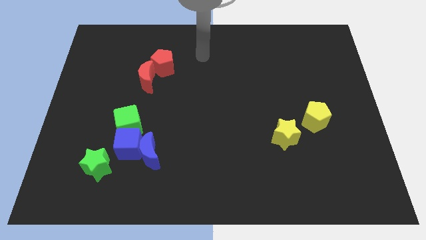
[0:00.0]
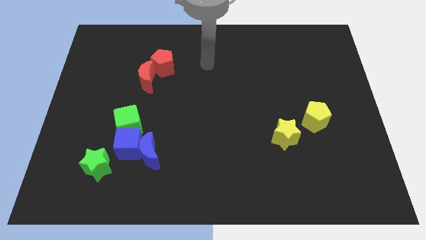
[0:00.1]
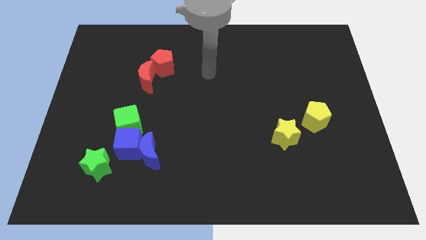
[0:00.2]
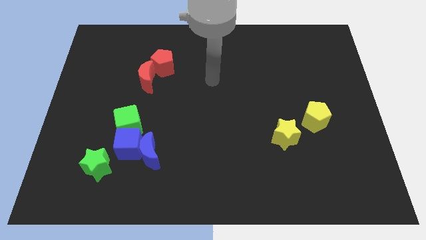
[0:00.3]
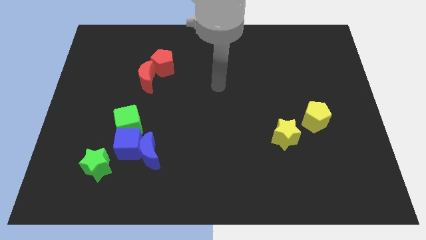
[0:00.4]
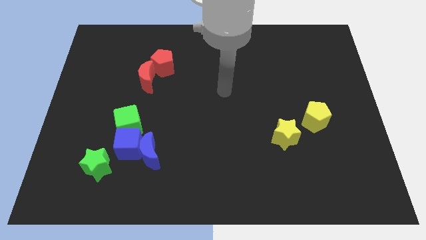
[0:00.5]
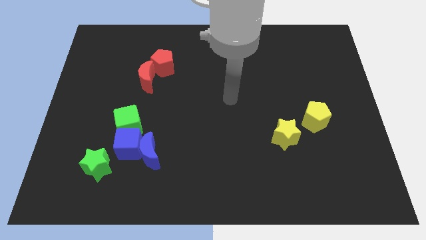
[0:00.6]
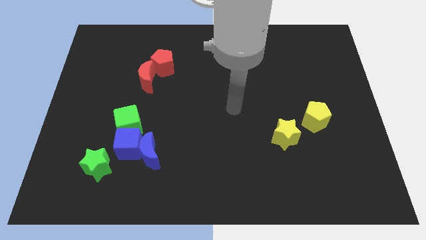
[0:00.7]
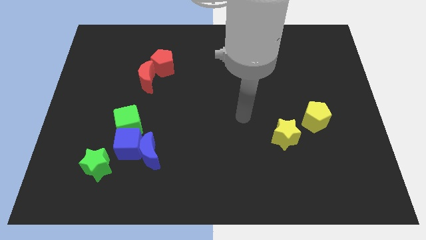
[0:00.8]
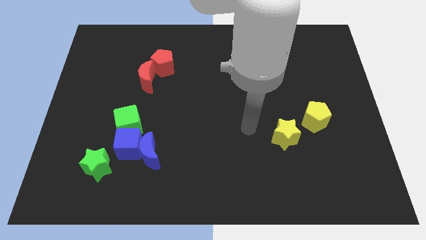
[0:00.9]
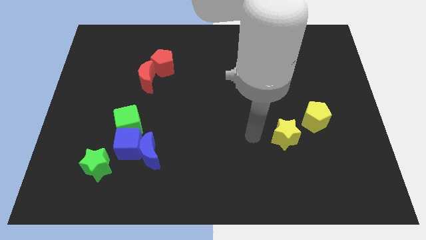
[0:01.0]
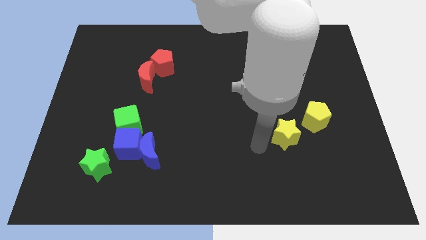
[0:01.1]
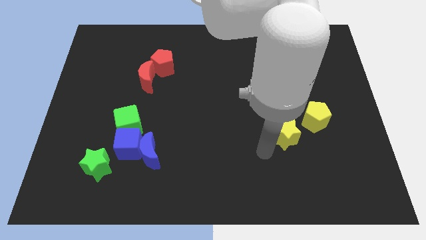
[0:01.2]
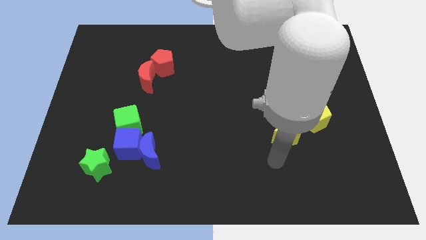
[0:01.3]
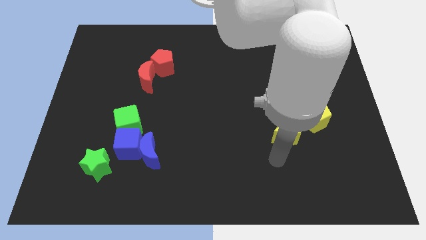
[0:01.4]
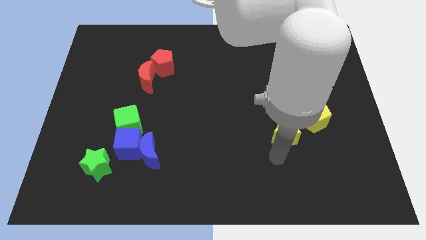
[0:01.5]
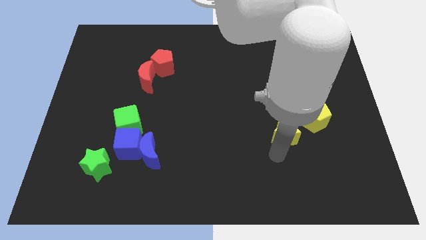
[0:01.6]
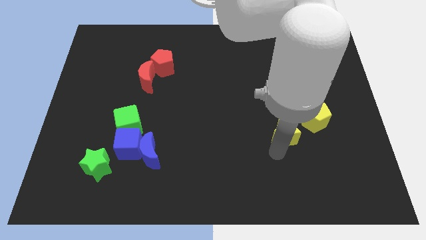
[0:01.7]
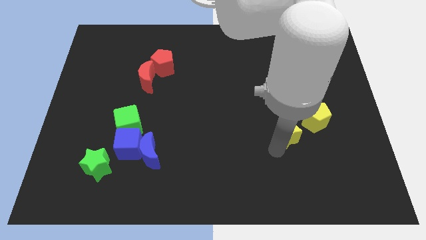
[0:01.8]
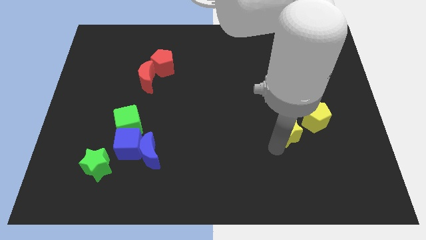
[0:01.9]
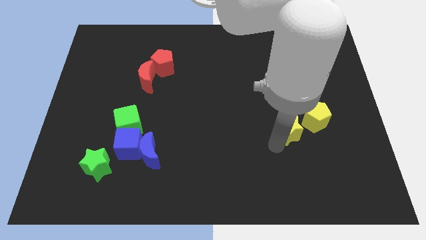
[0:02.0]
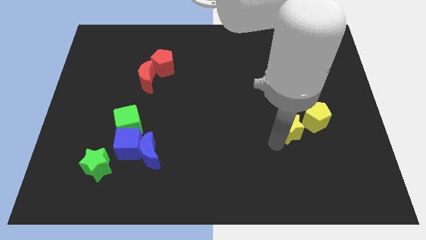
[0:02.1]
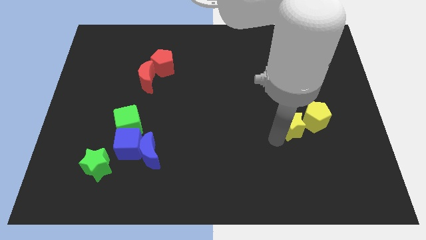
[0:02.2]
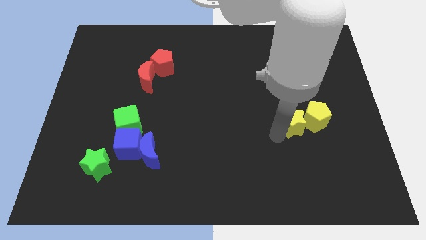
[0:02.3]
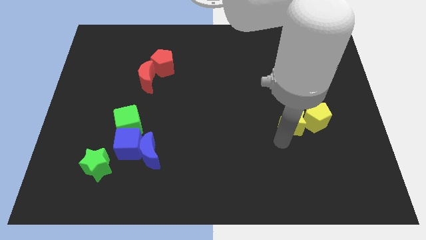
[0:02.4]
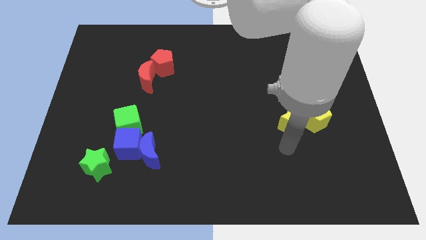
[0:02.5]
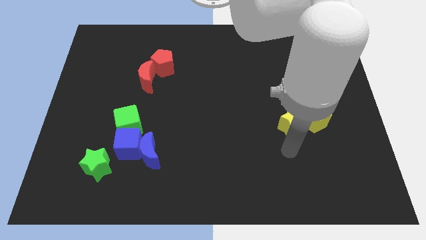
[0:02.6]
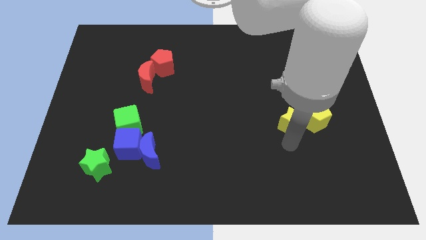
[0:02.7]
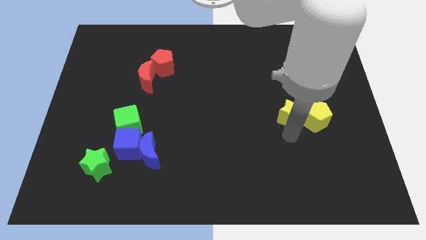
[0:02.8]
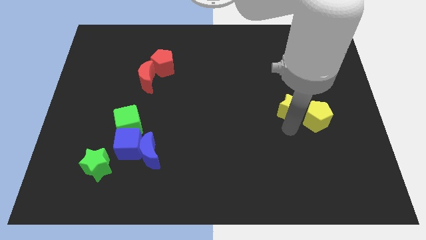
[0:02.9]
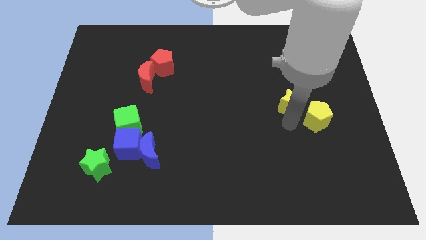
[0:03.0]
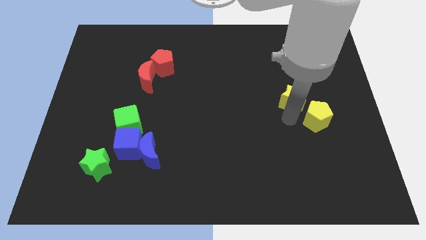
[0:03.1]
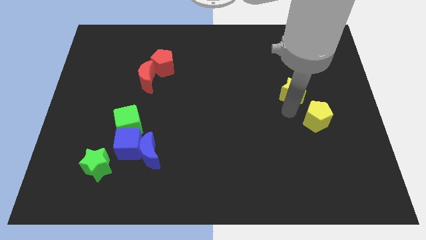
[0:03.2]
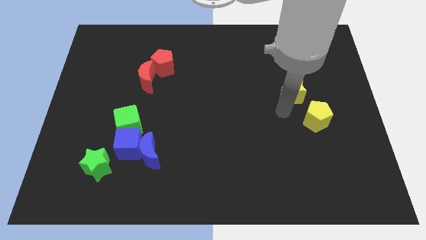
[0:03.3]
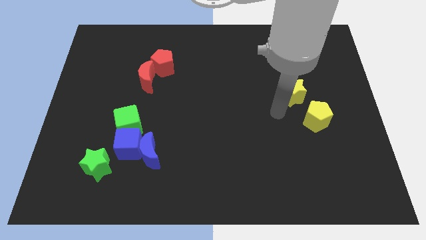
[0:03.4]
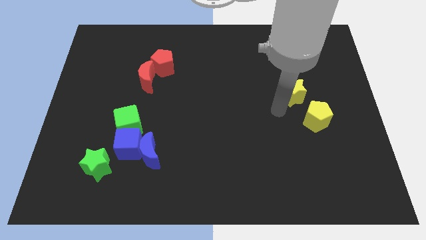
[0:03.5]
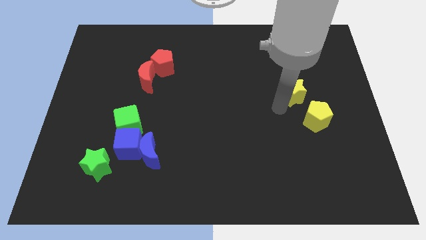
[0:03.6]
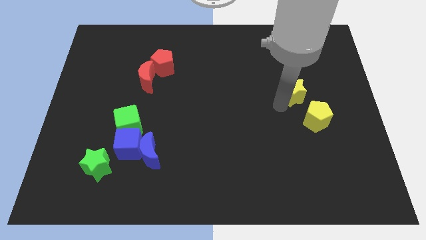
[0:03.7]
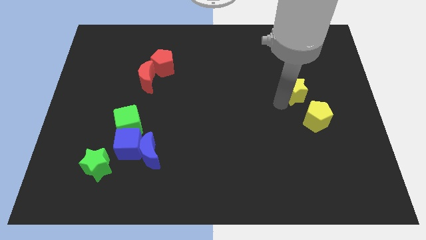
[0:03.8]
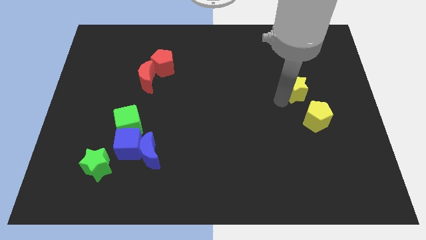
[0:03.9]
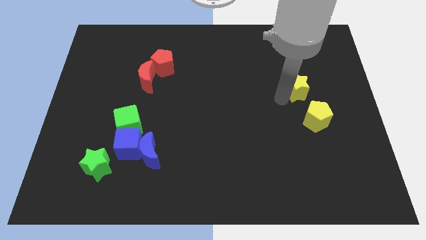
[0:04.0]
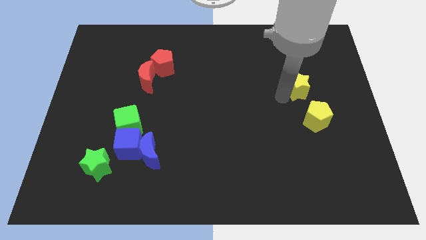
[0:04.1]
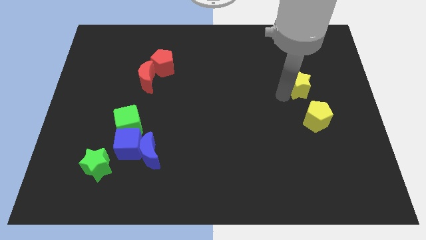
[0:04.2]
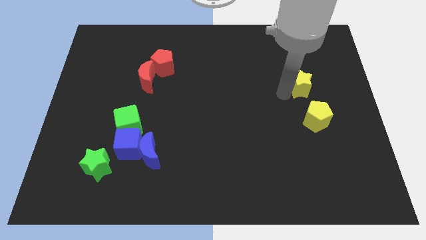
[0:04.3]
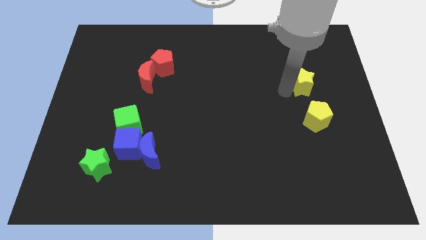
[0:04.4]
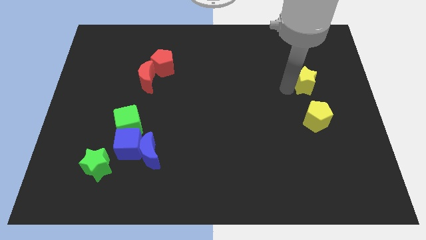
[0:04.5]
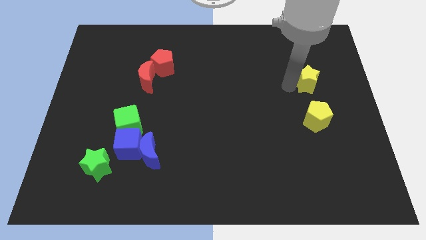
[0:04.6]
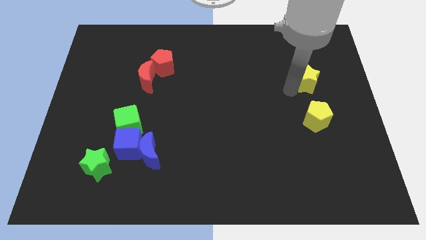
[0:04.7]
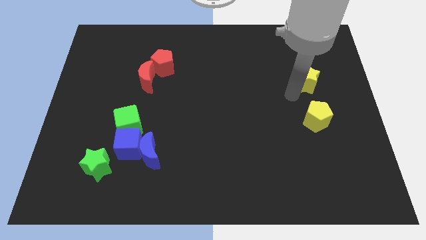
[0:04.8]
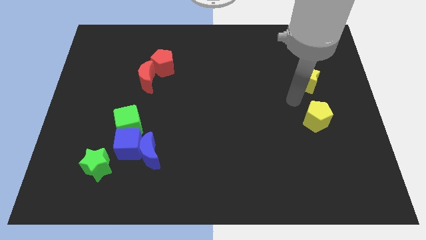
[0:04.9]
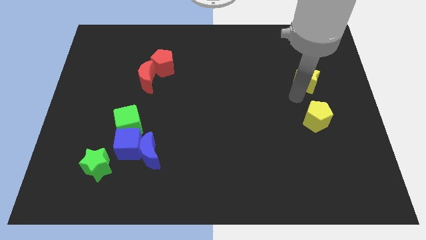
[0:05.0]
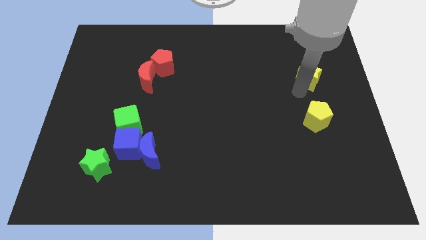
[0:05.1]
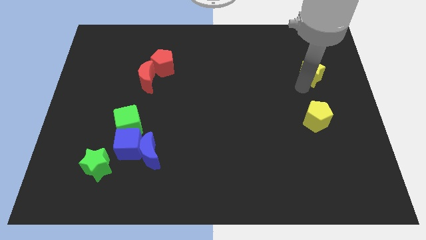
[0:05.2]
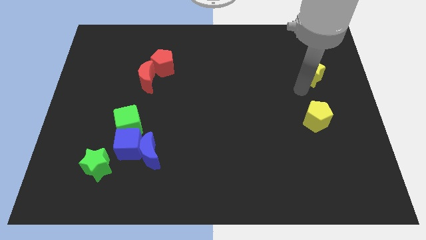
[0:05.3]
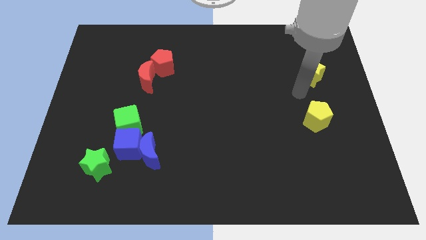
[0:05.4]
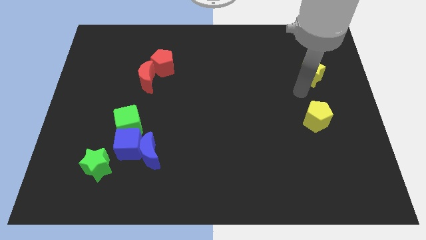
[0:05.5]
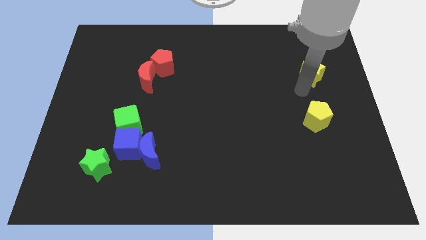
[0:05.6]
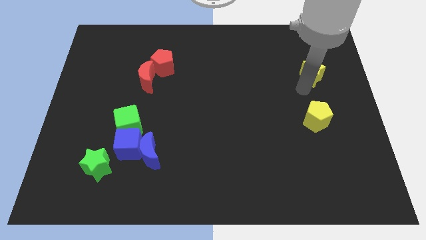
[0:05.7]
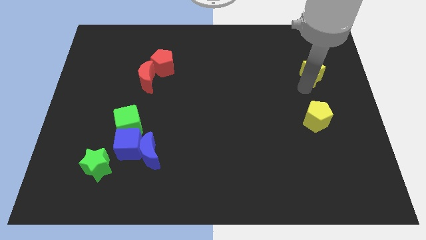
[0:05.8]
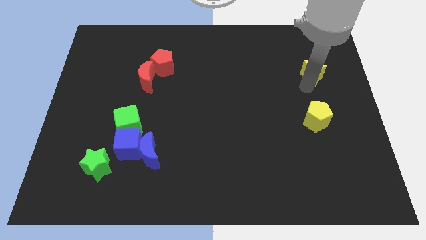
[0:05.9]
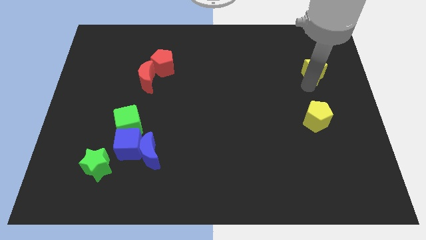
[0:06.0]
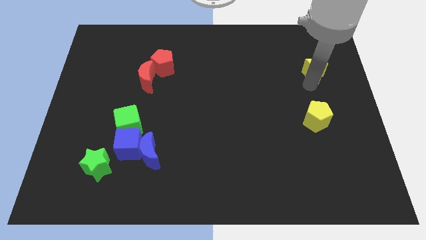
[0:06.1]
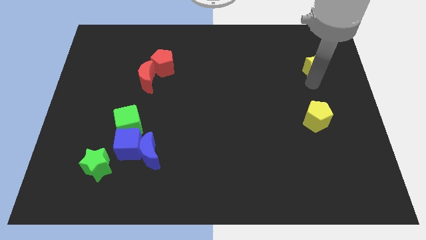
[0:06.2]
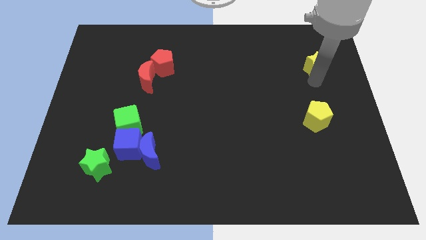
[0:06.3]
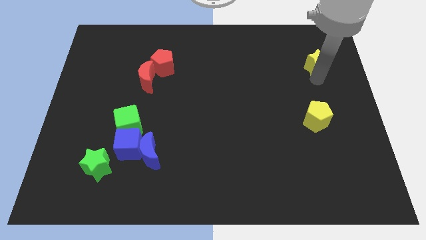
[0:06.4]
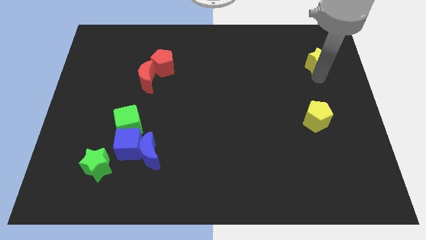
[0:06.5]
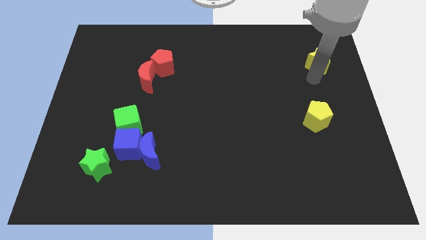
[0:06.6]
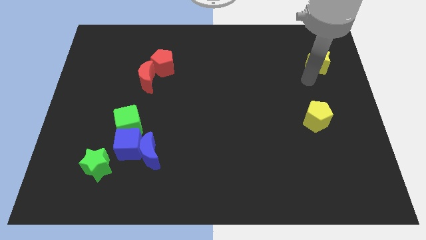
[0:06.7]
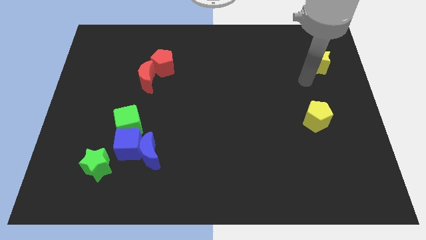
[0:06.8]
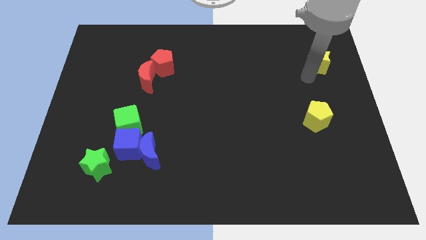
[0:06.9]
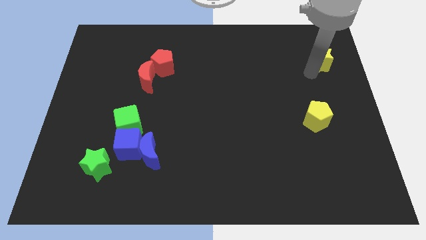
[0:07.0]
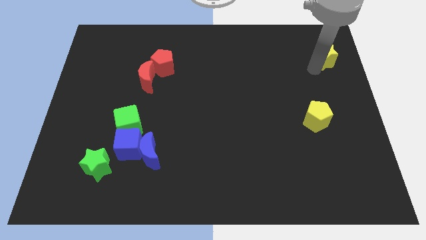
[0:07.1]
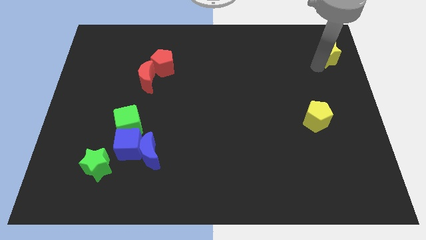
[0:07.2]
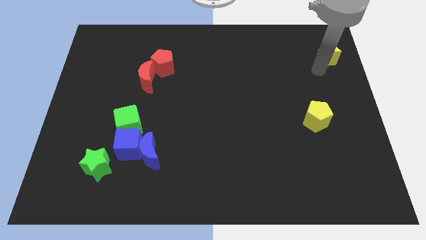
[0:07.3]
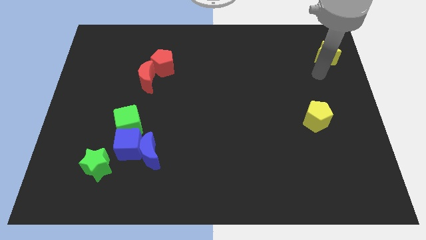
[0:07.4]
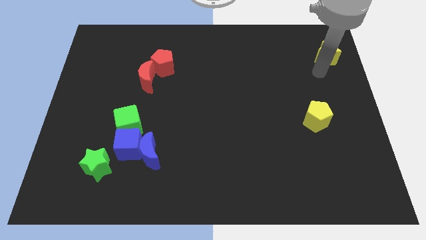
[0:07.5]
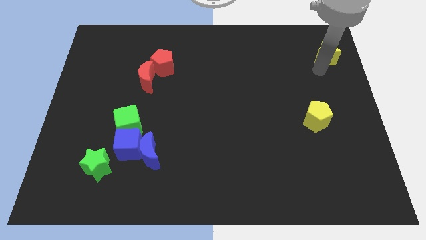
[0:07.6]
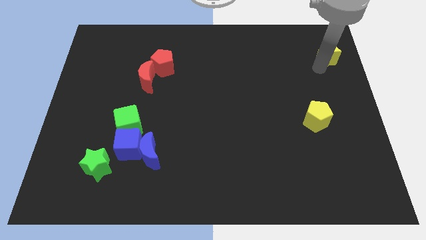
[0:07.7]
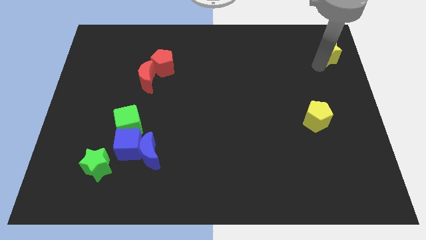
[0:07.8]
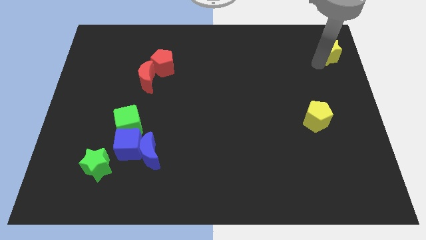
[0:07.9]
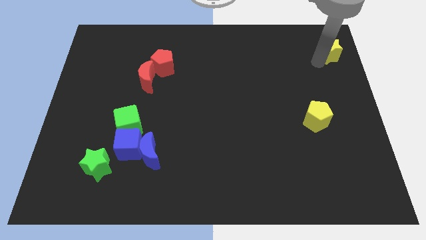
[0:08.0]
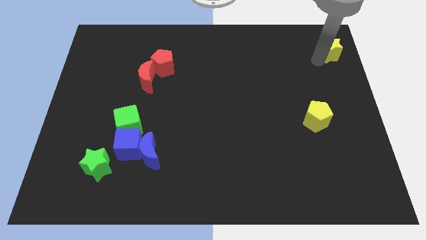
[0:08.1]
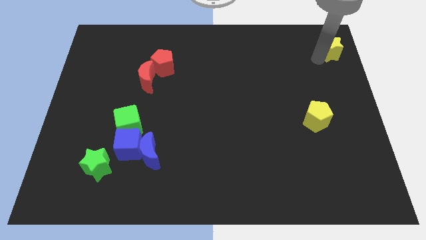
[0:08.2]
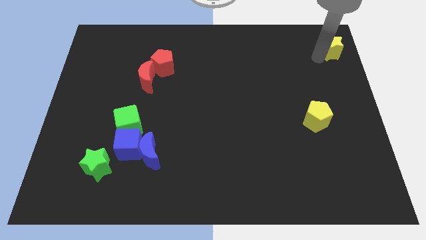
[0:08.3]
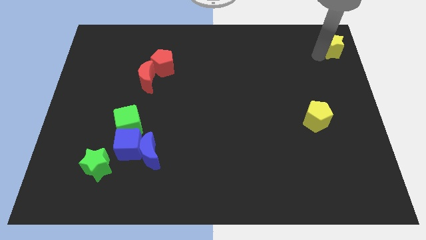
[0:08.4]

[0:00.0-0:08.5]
put the yellow star to the top right corner
